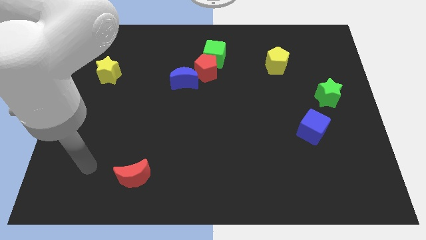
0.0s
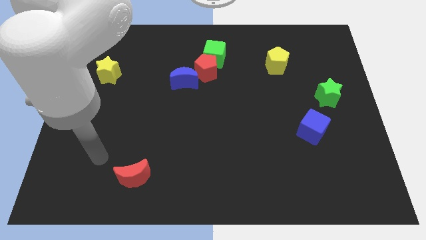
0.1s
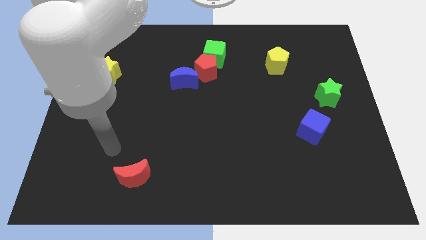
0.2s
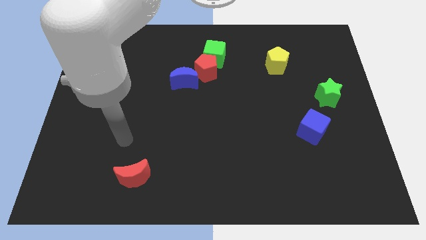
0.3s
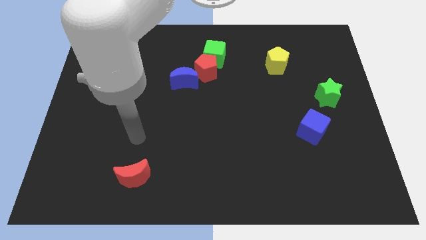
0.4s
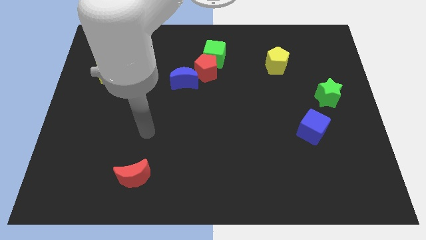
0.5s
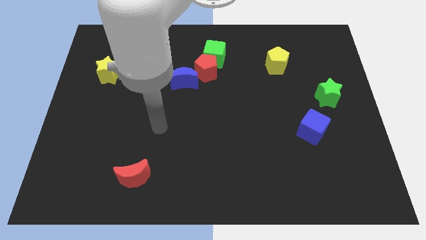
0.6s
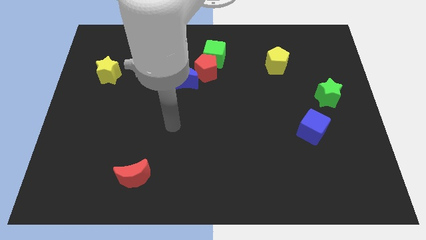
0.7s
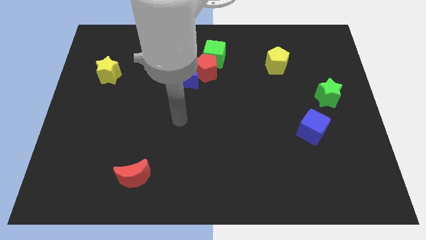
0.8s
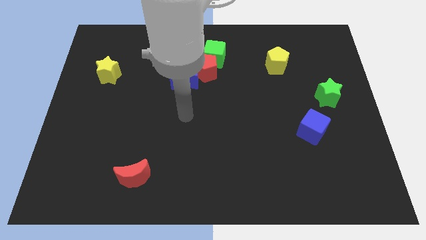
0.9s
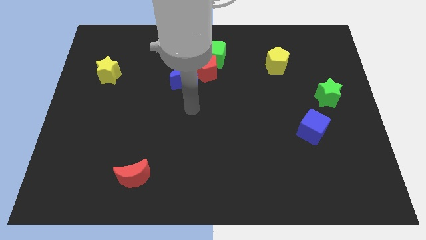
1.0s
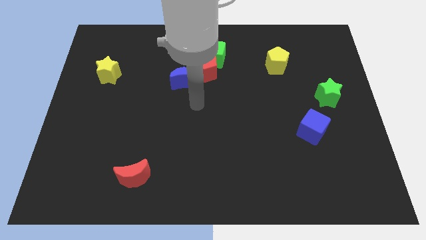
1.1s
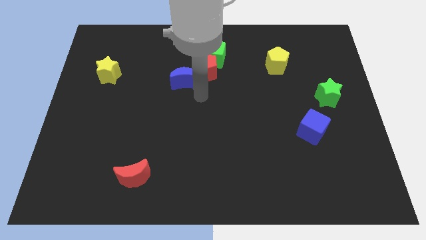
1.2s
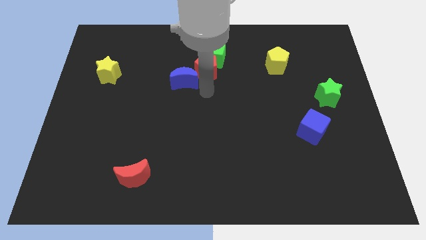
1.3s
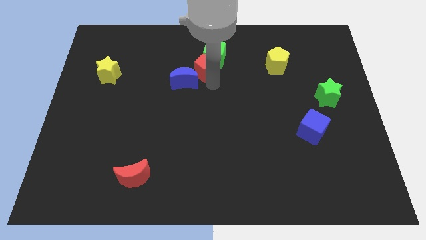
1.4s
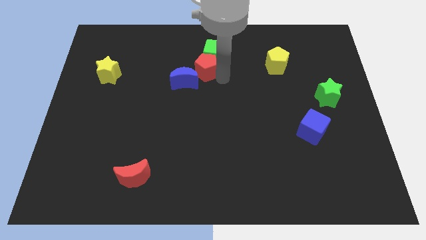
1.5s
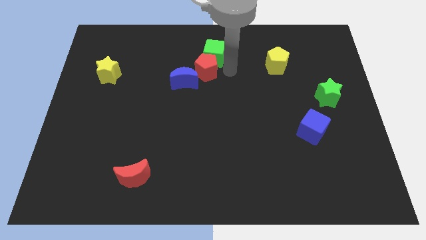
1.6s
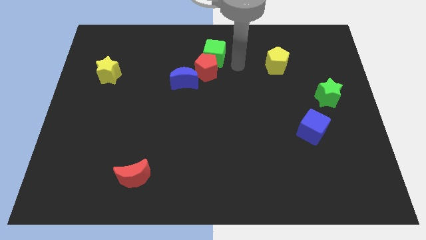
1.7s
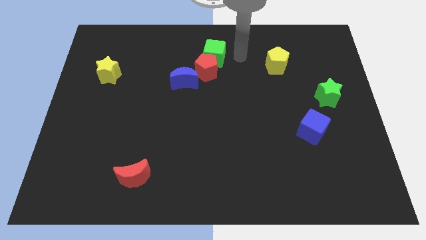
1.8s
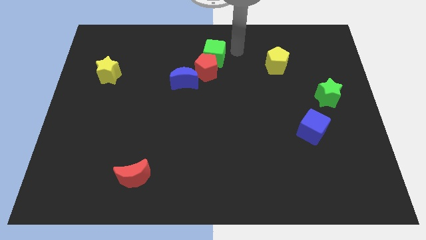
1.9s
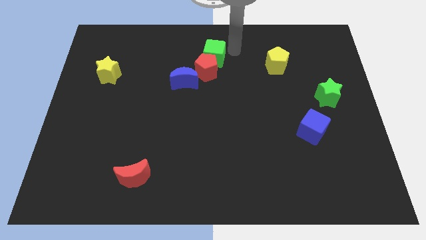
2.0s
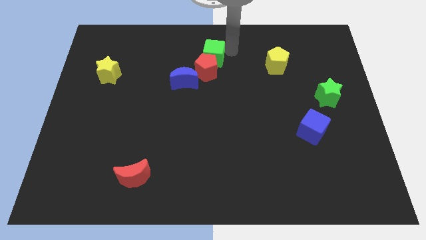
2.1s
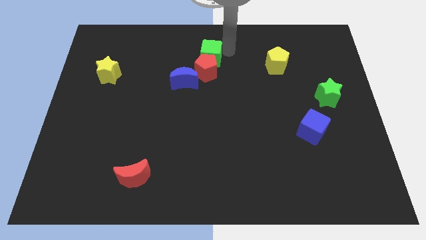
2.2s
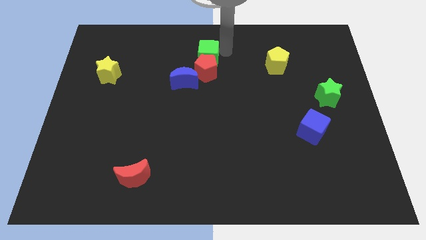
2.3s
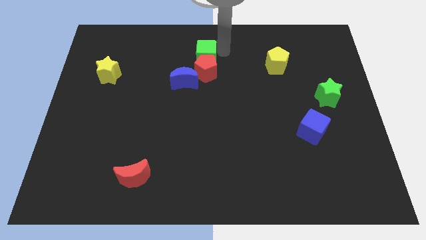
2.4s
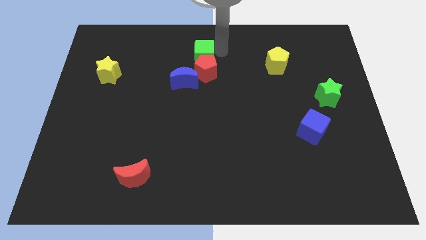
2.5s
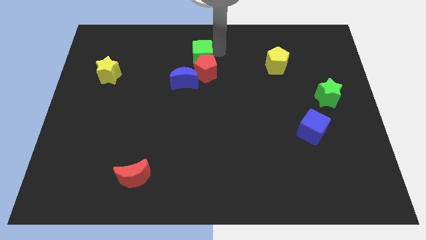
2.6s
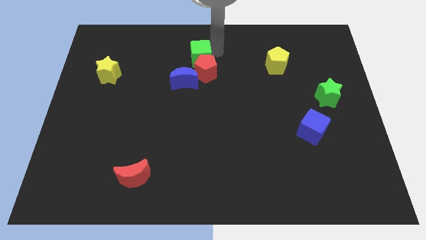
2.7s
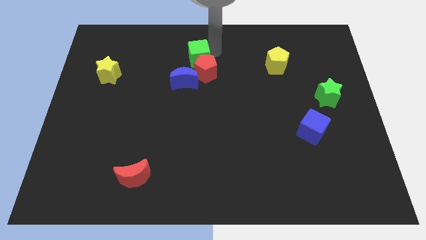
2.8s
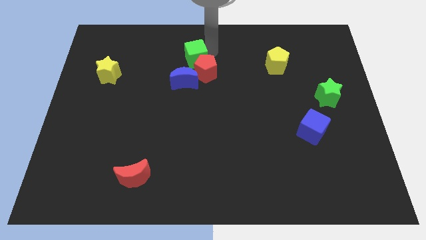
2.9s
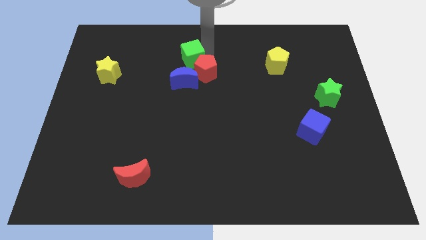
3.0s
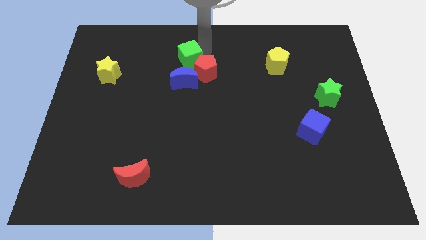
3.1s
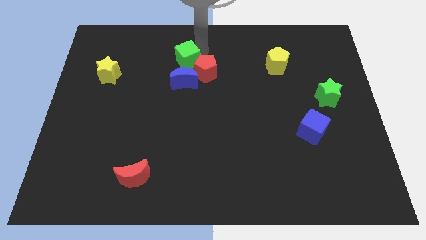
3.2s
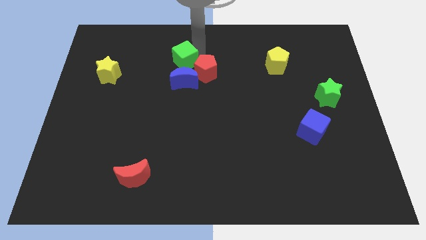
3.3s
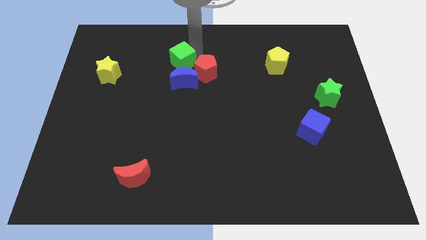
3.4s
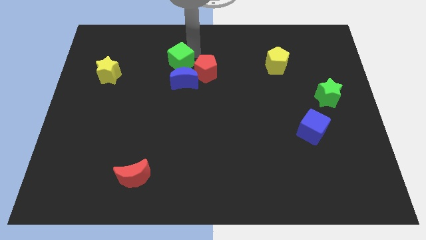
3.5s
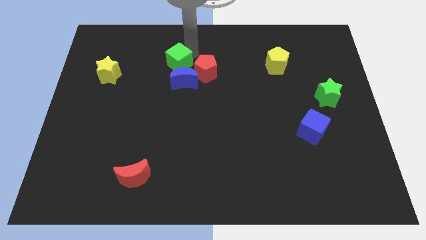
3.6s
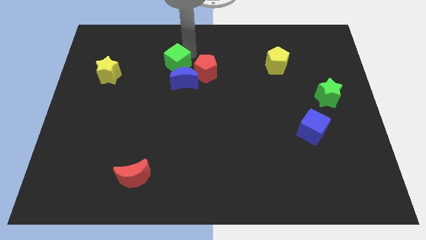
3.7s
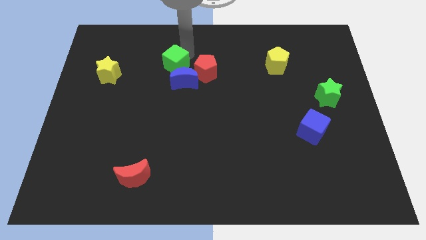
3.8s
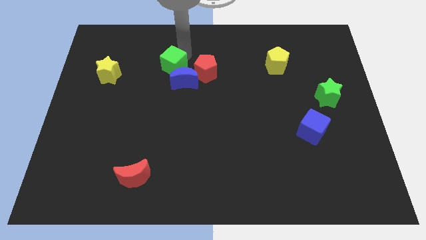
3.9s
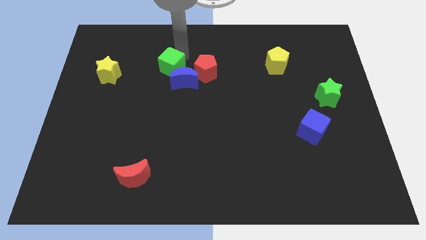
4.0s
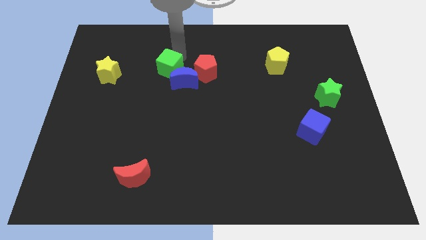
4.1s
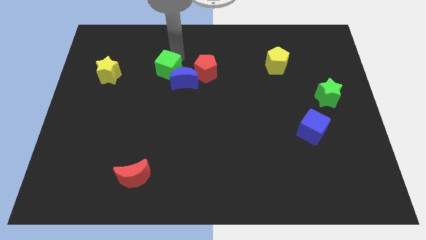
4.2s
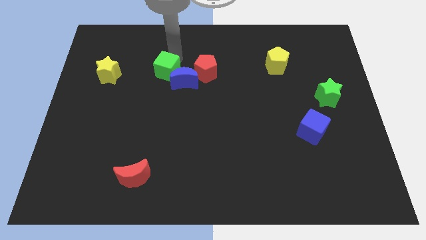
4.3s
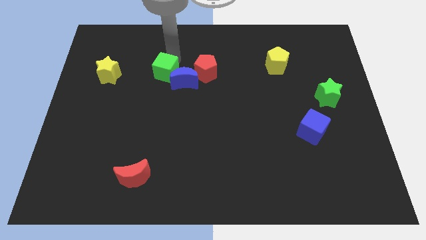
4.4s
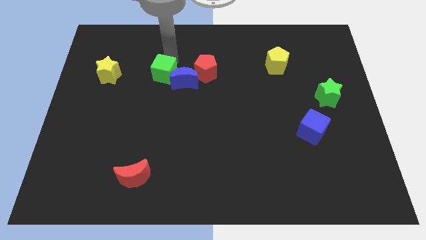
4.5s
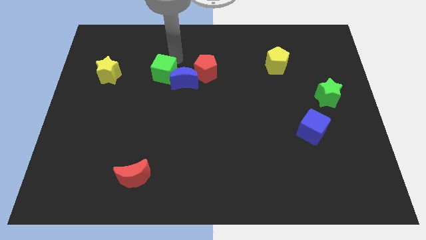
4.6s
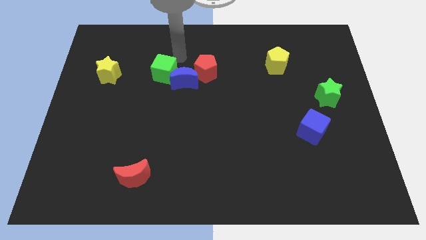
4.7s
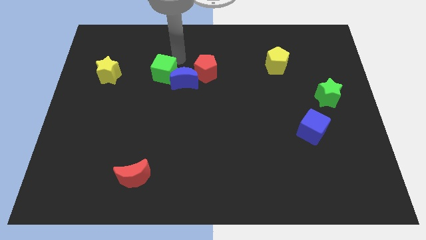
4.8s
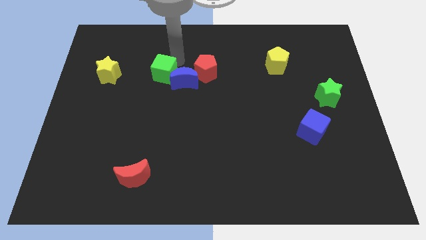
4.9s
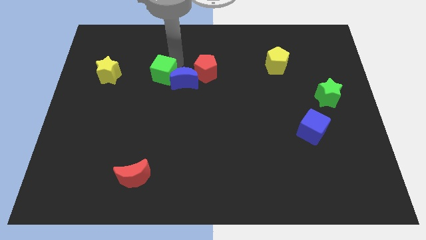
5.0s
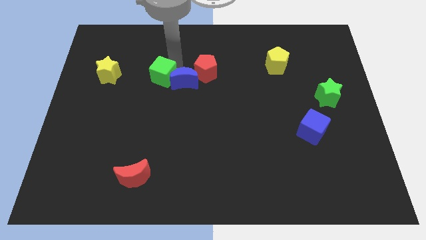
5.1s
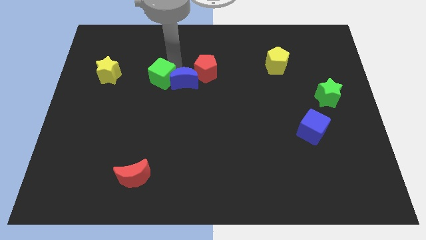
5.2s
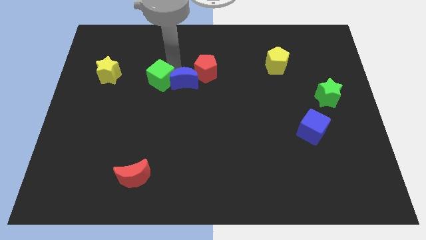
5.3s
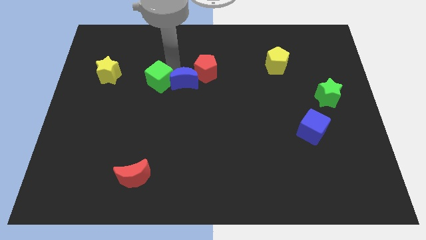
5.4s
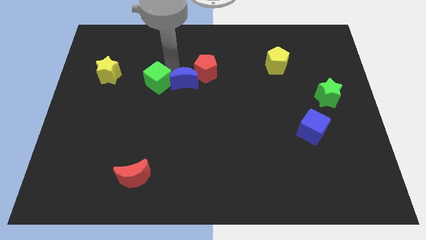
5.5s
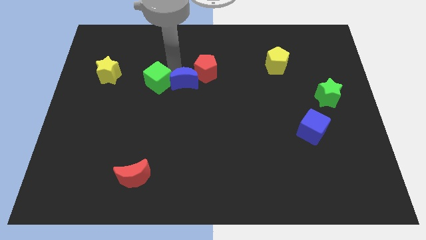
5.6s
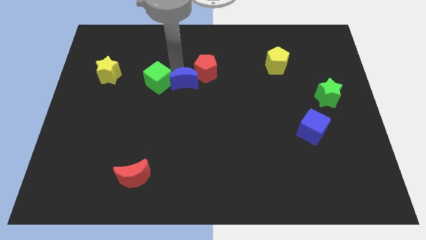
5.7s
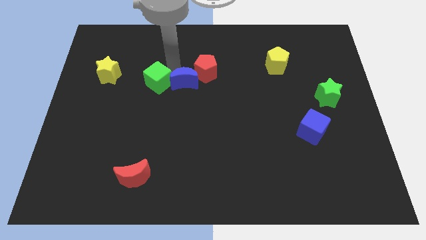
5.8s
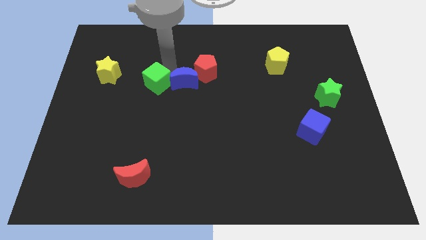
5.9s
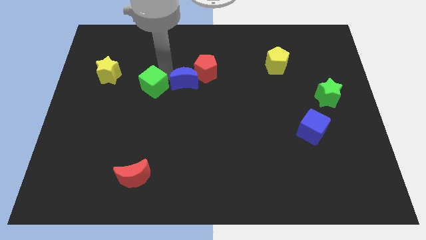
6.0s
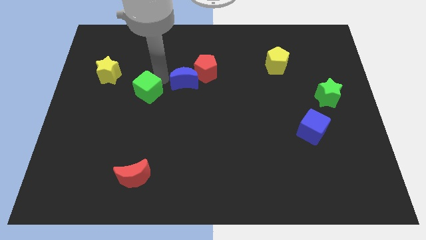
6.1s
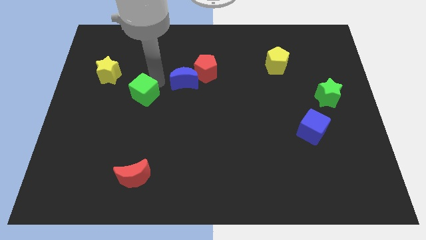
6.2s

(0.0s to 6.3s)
move the green cube down and left

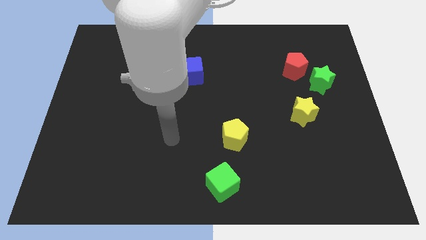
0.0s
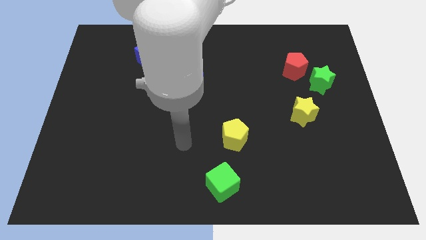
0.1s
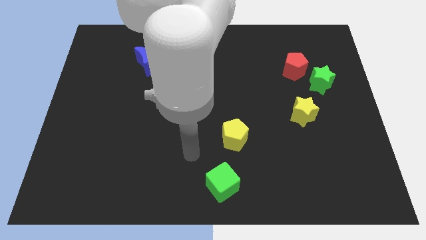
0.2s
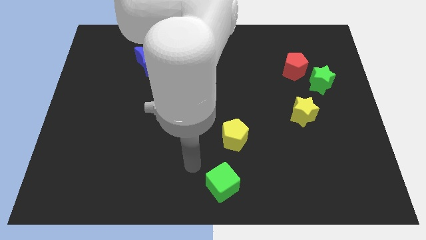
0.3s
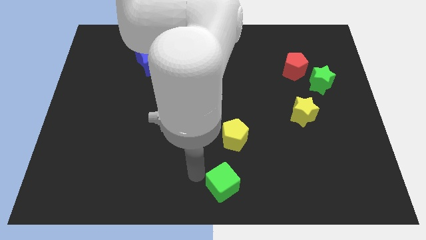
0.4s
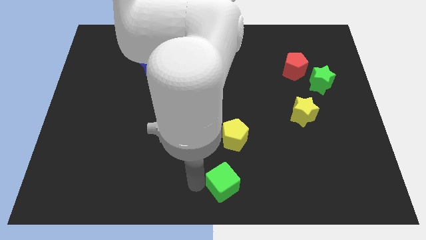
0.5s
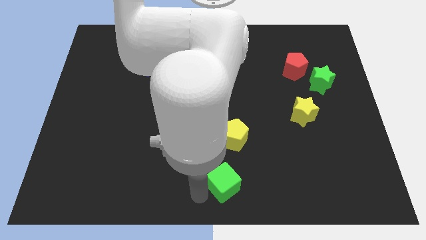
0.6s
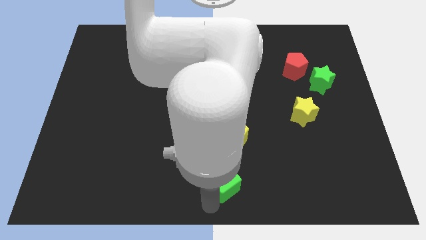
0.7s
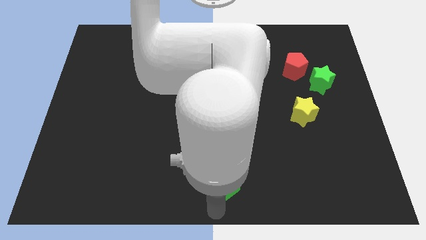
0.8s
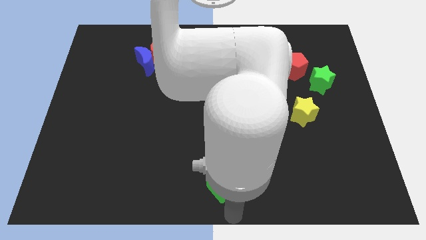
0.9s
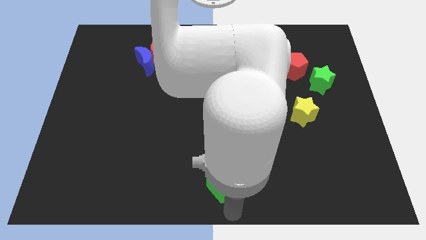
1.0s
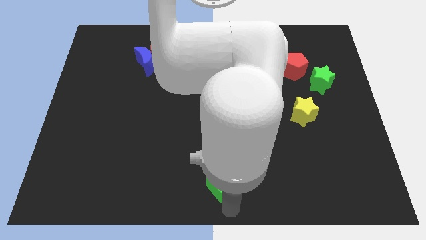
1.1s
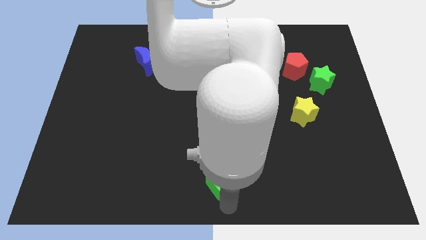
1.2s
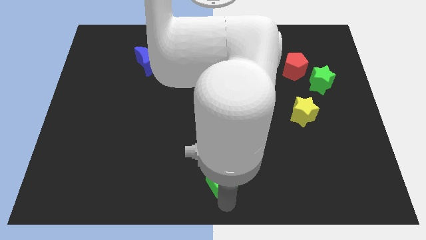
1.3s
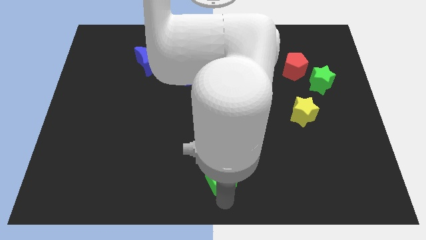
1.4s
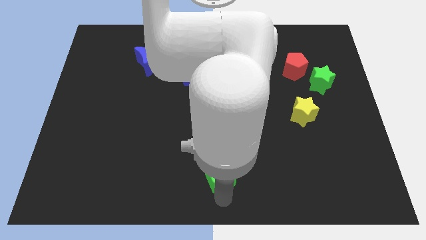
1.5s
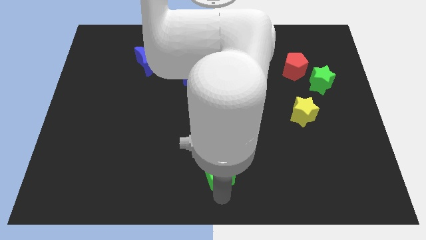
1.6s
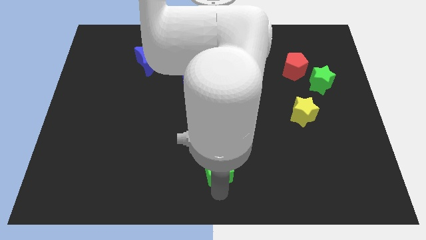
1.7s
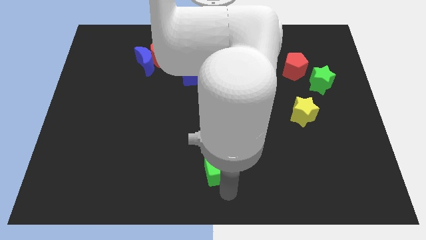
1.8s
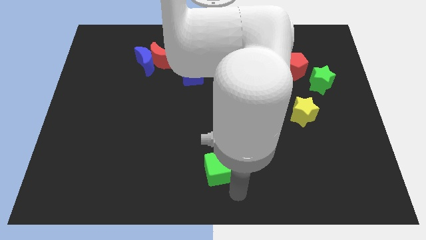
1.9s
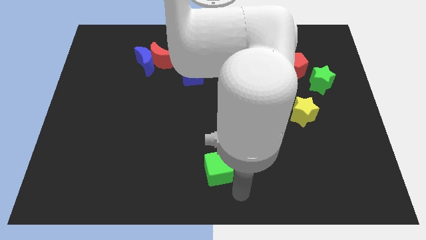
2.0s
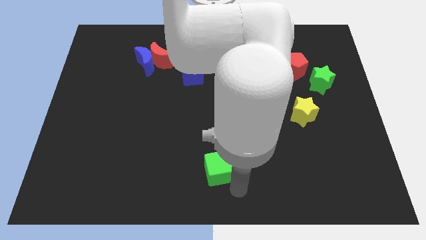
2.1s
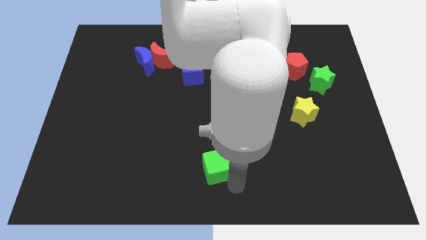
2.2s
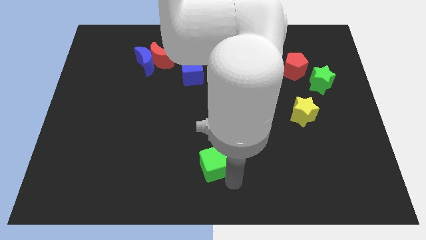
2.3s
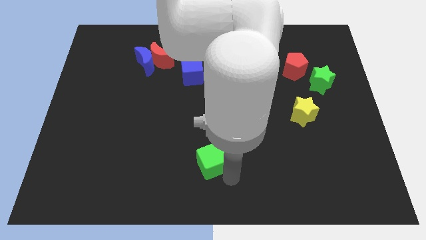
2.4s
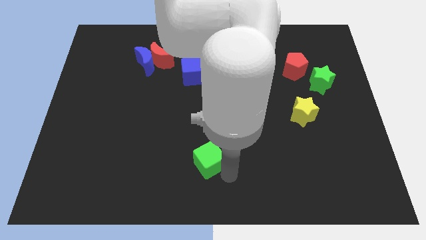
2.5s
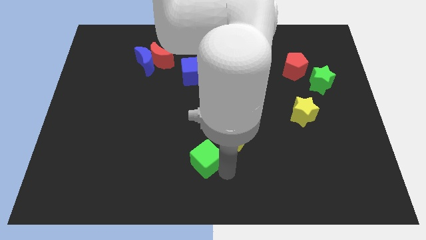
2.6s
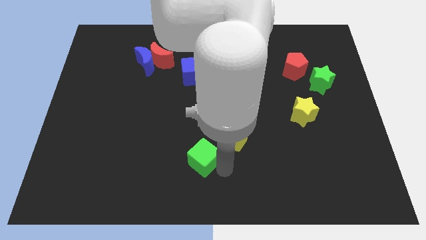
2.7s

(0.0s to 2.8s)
slide the green cube upwards and then left slightly
